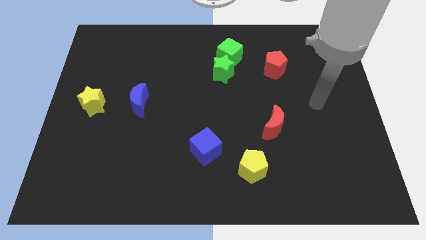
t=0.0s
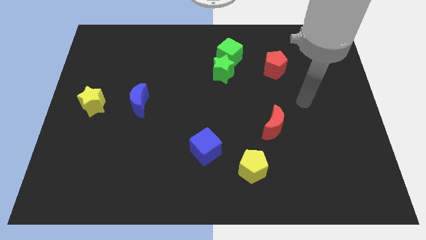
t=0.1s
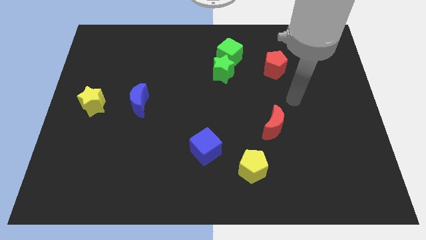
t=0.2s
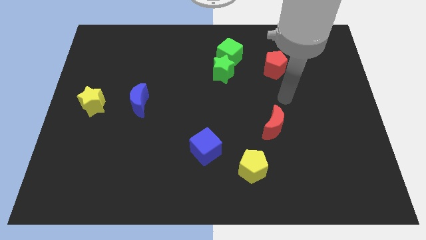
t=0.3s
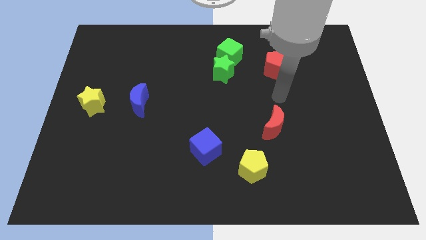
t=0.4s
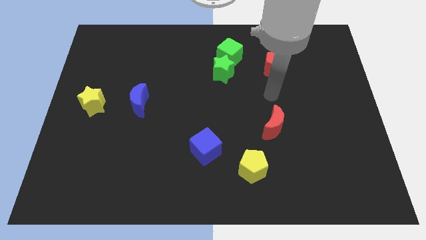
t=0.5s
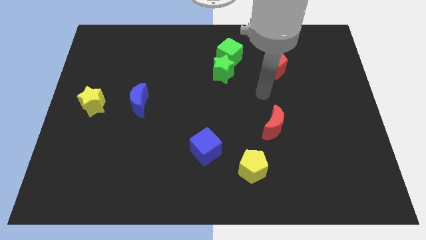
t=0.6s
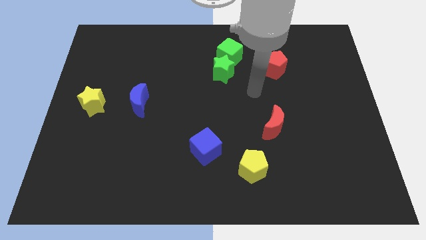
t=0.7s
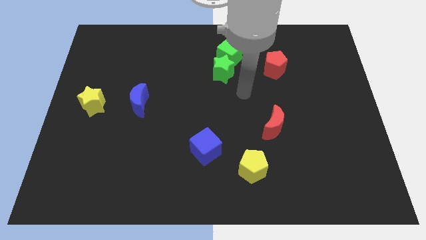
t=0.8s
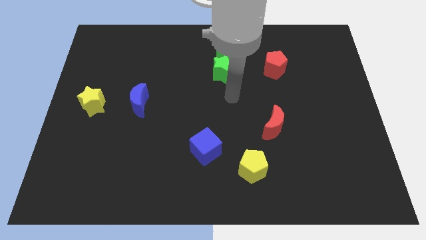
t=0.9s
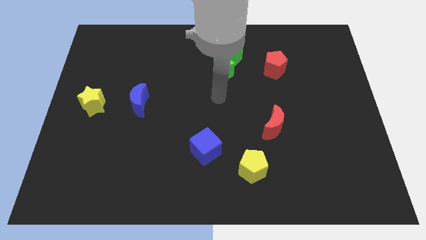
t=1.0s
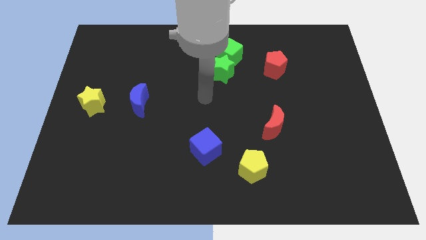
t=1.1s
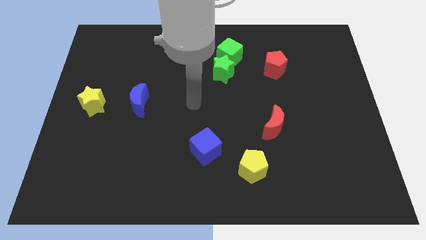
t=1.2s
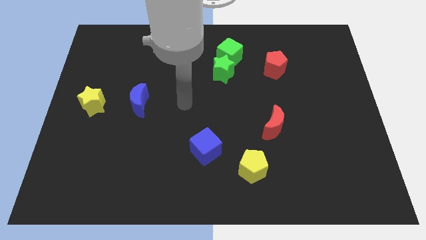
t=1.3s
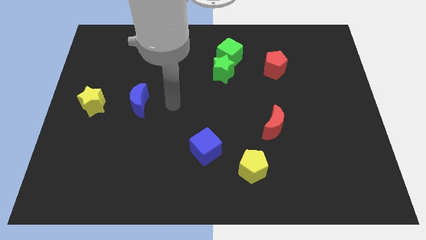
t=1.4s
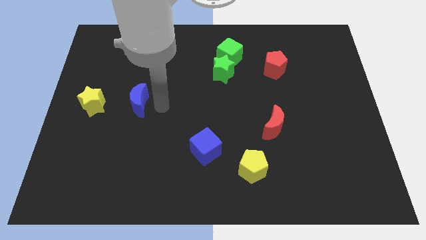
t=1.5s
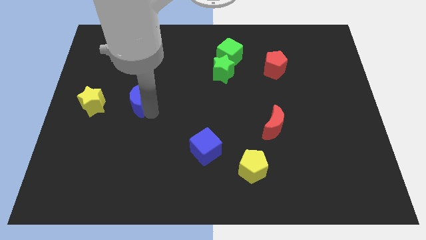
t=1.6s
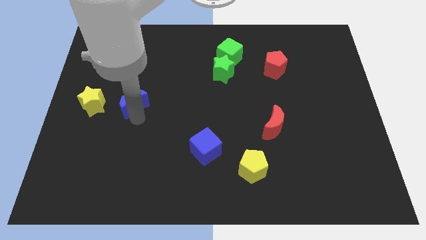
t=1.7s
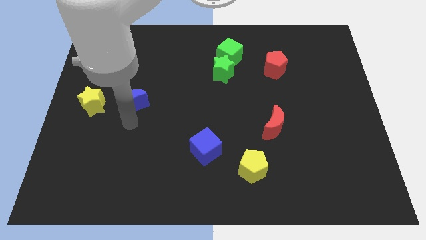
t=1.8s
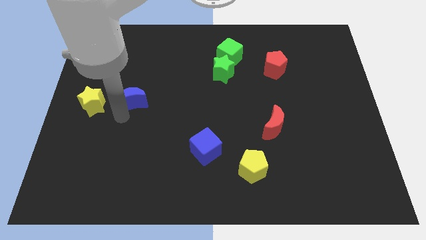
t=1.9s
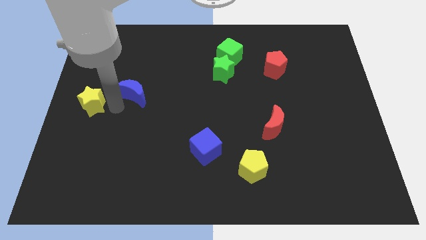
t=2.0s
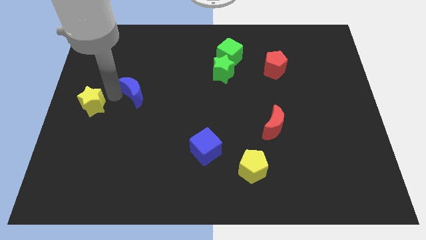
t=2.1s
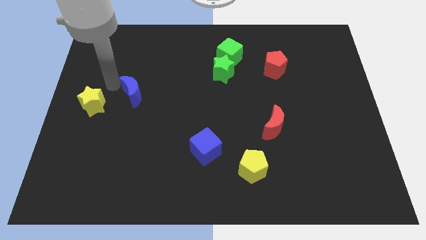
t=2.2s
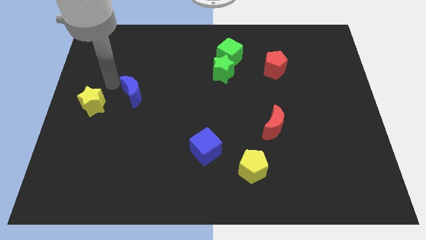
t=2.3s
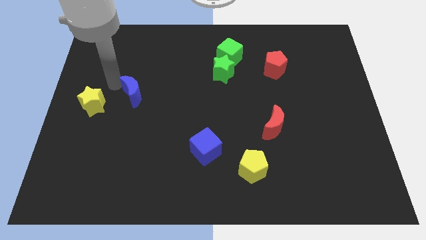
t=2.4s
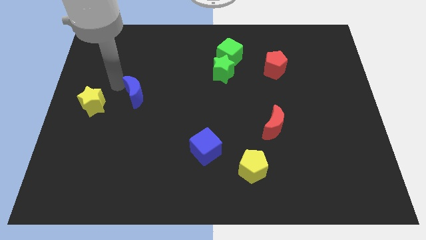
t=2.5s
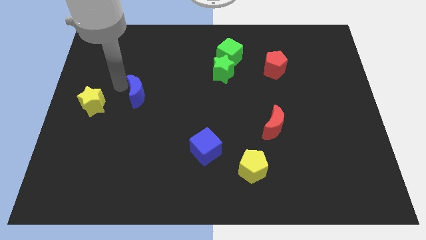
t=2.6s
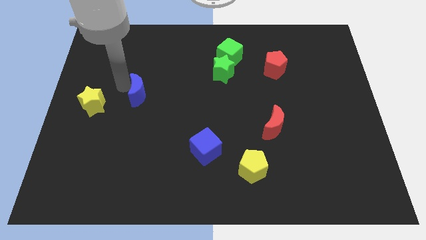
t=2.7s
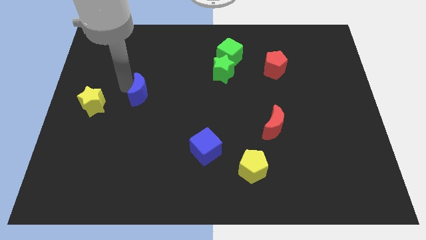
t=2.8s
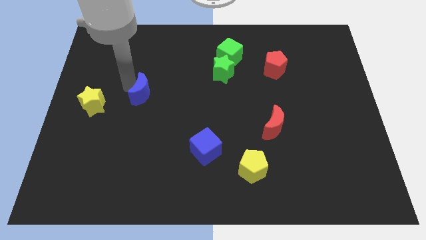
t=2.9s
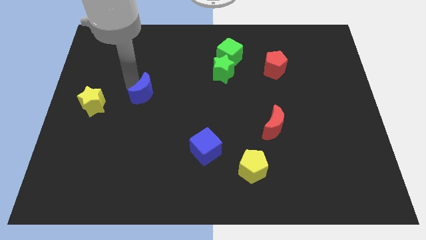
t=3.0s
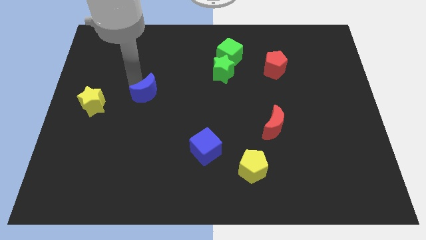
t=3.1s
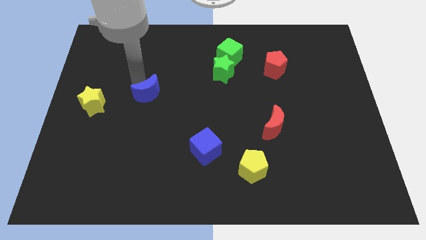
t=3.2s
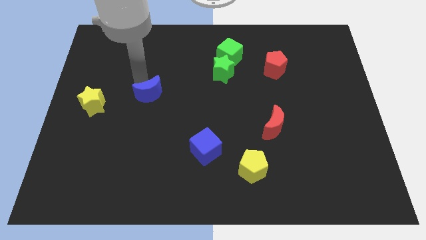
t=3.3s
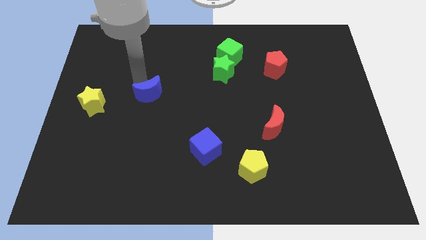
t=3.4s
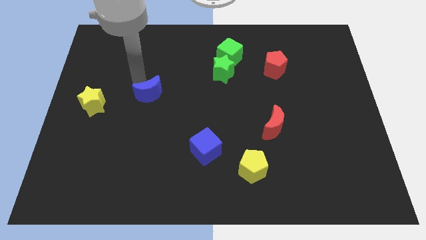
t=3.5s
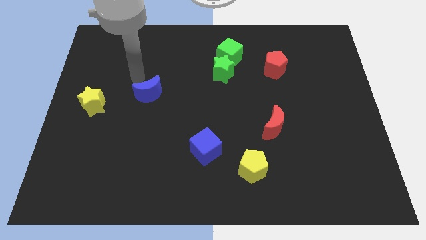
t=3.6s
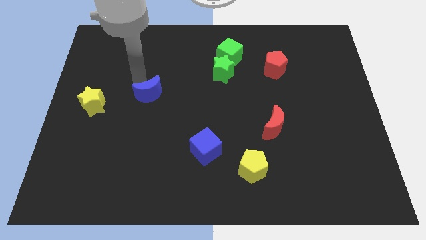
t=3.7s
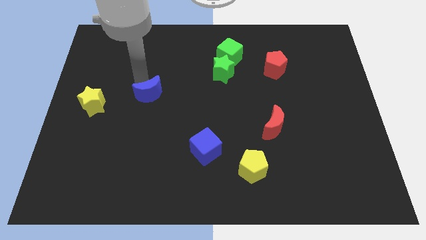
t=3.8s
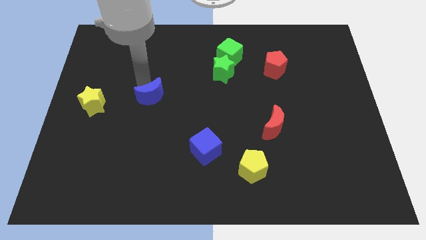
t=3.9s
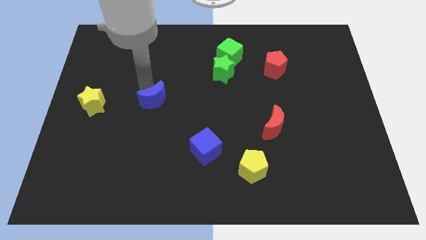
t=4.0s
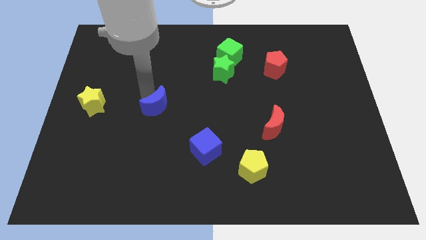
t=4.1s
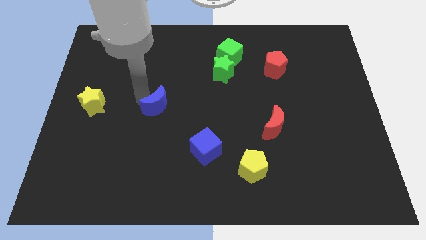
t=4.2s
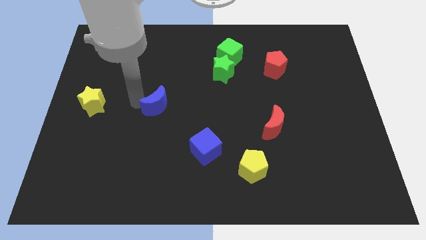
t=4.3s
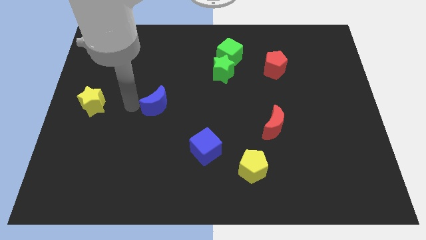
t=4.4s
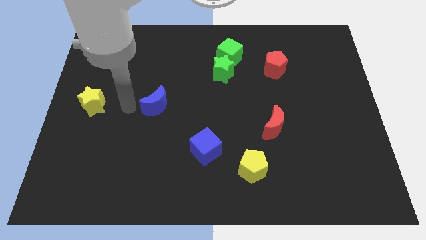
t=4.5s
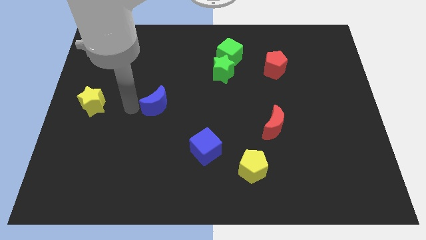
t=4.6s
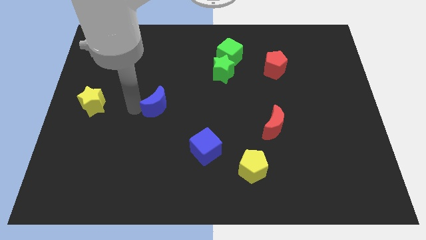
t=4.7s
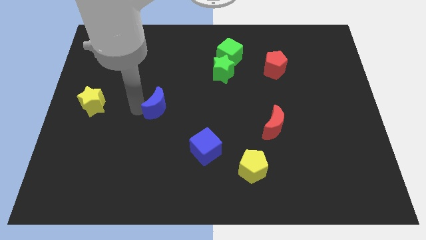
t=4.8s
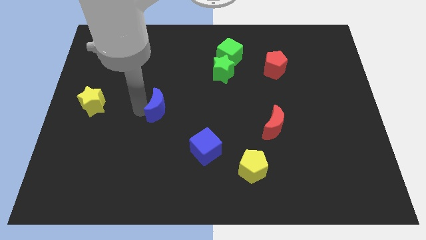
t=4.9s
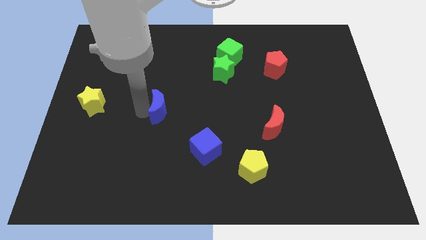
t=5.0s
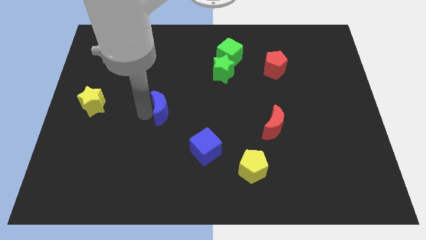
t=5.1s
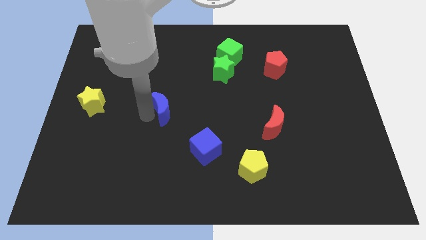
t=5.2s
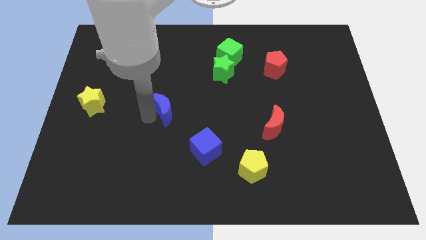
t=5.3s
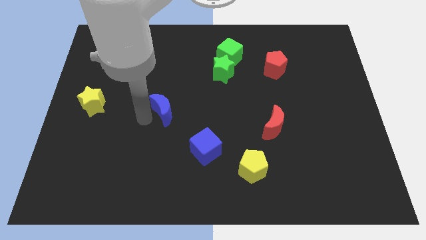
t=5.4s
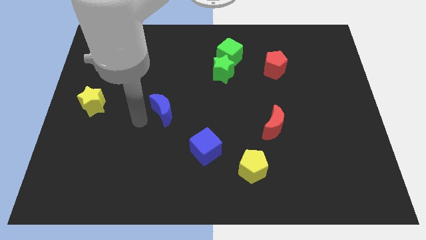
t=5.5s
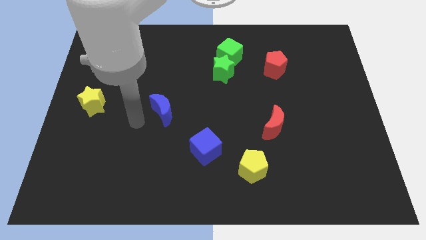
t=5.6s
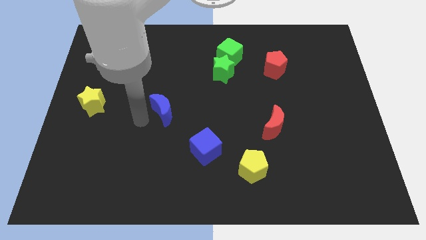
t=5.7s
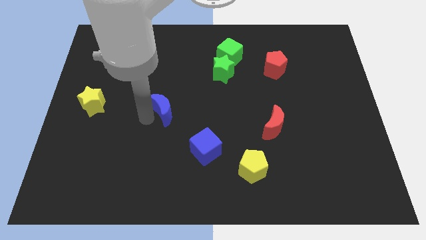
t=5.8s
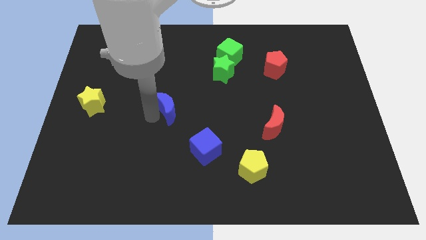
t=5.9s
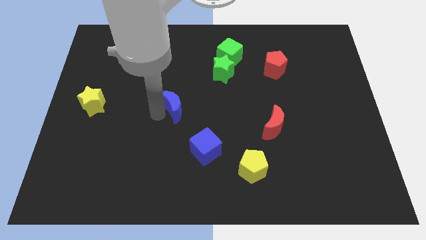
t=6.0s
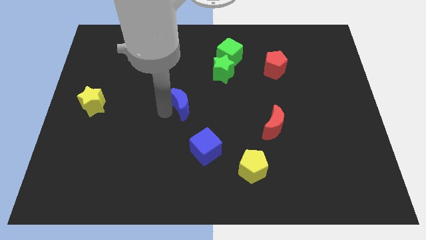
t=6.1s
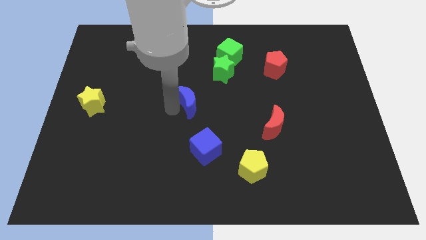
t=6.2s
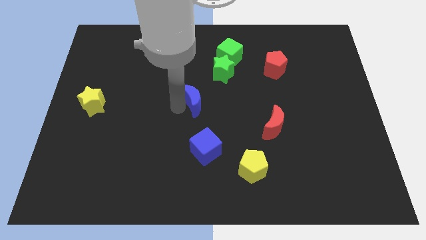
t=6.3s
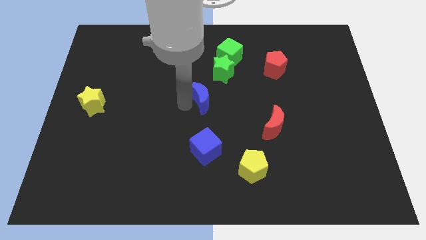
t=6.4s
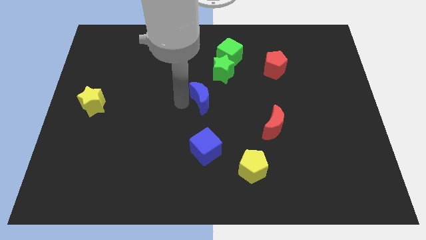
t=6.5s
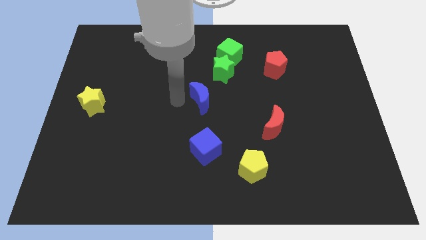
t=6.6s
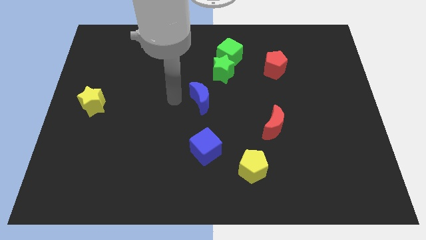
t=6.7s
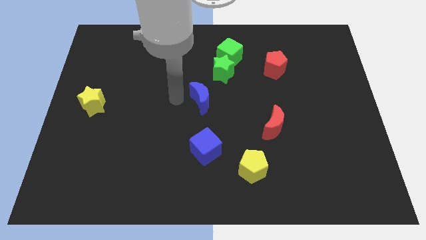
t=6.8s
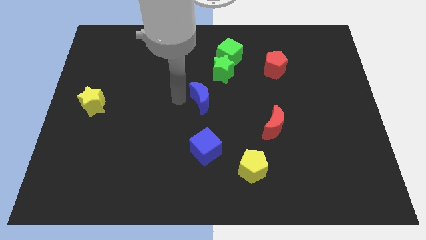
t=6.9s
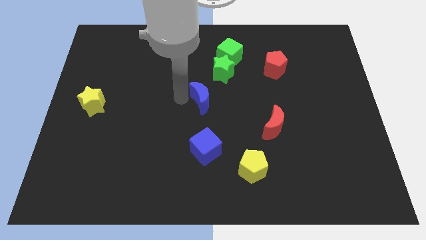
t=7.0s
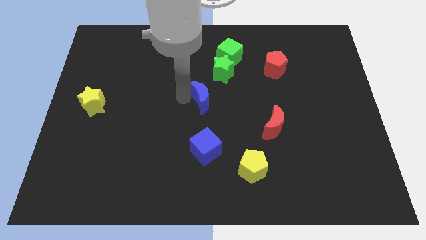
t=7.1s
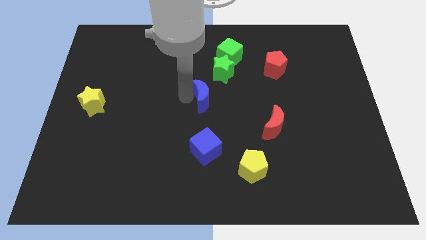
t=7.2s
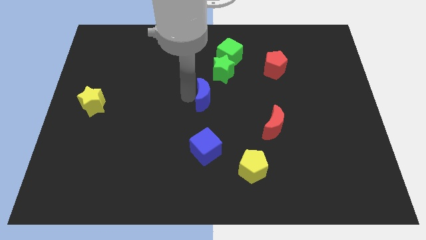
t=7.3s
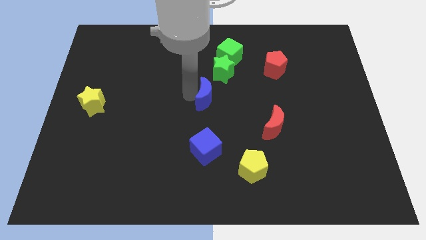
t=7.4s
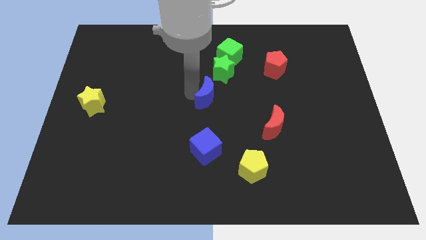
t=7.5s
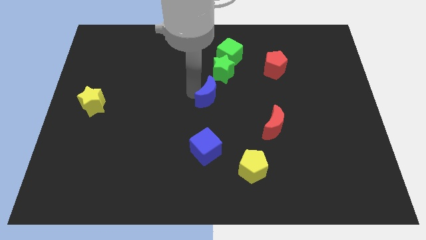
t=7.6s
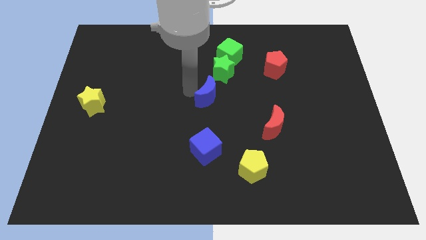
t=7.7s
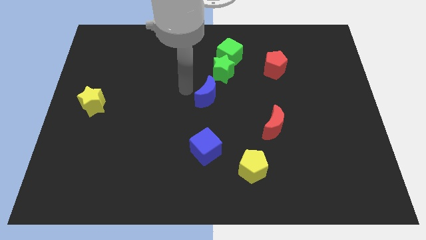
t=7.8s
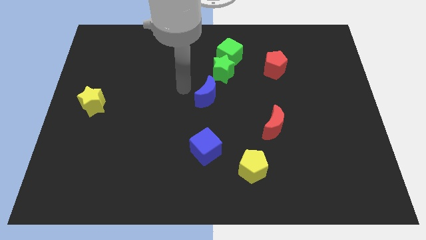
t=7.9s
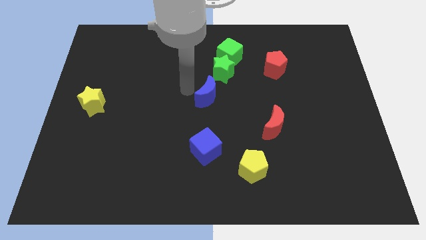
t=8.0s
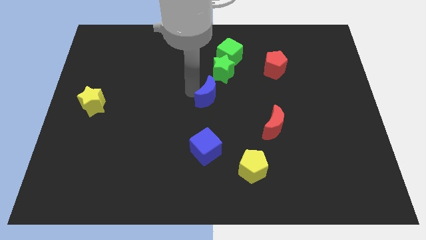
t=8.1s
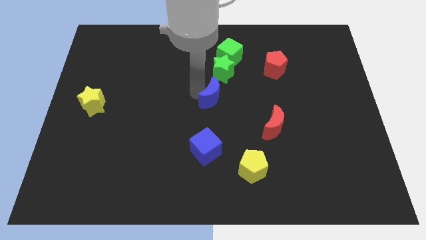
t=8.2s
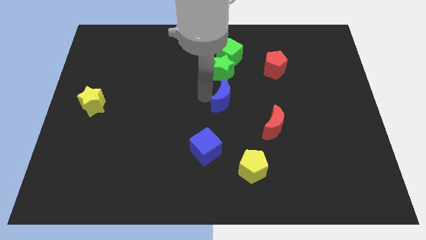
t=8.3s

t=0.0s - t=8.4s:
push the blue moon right
